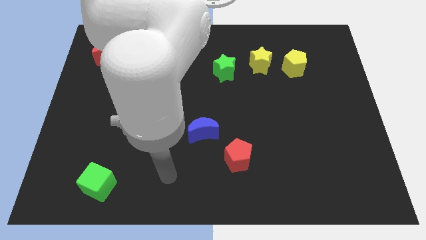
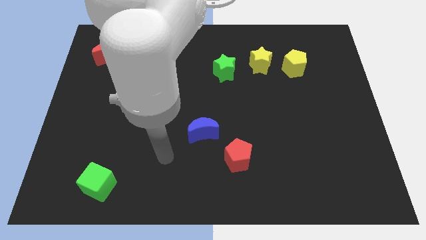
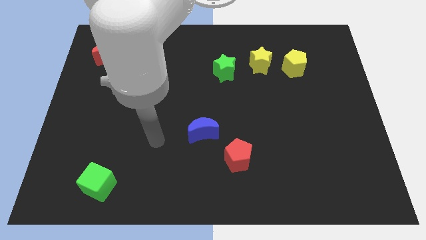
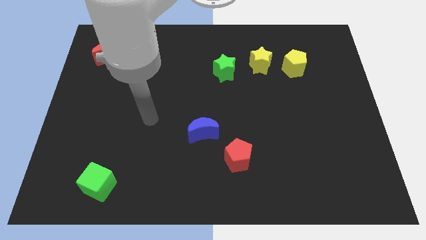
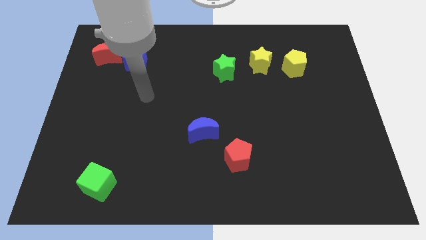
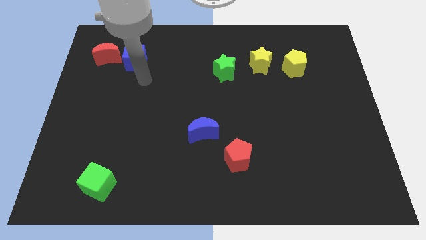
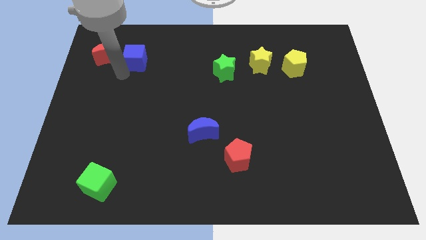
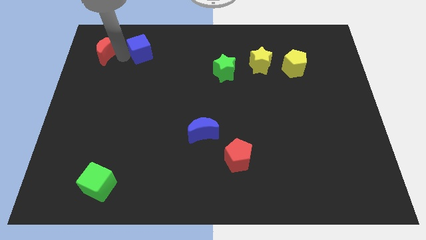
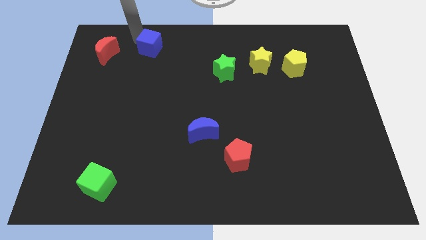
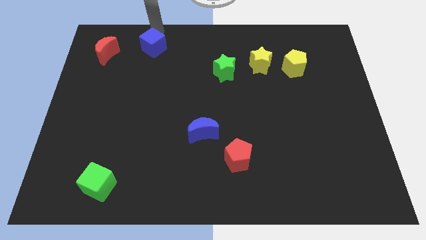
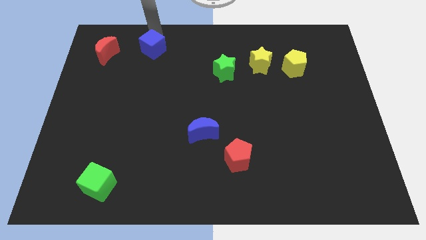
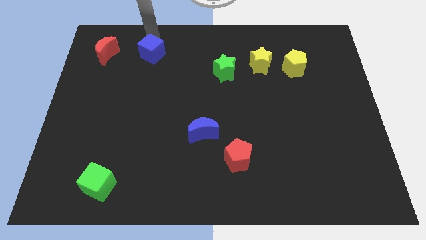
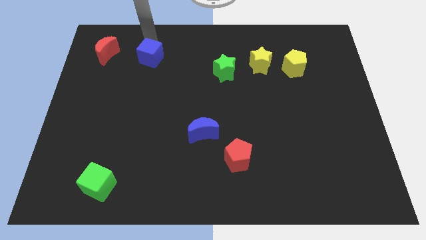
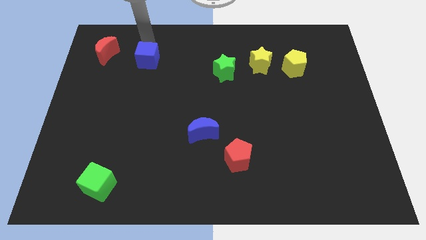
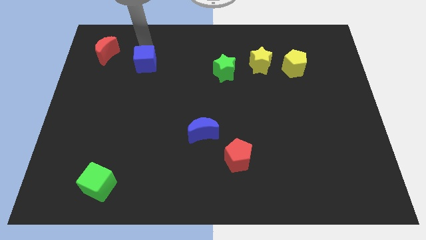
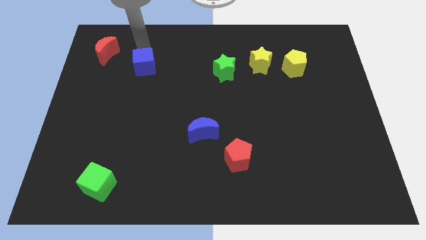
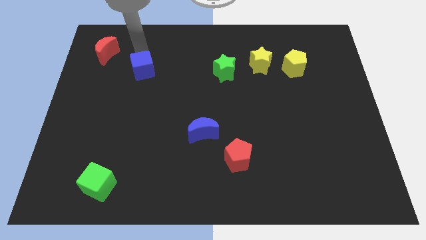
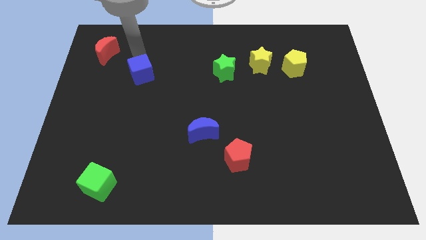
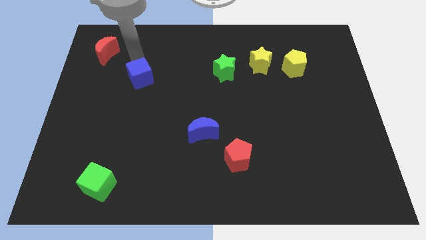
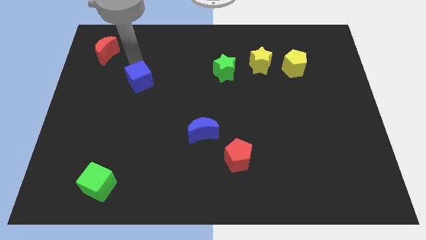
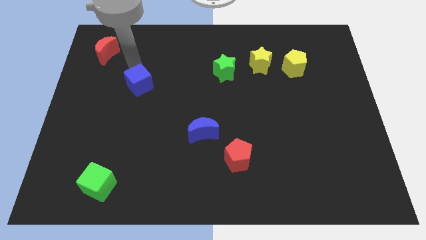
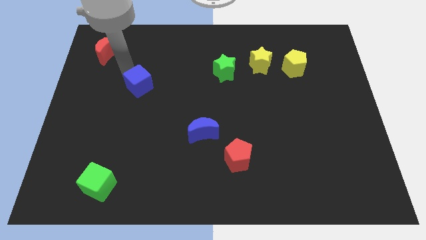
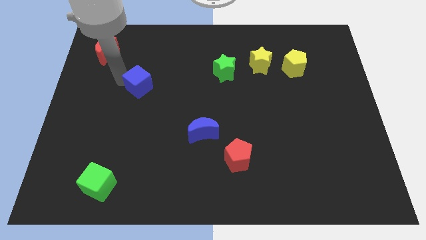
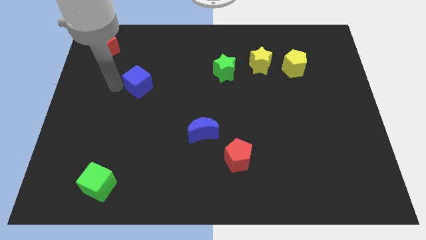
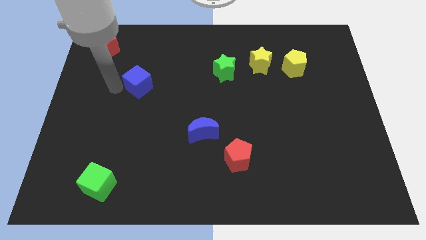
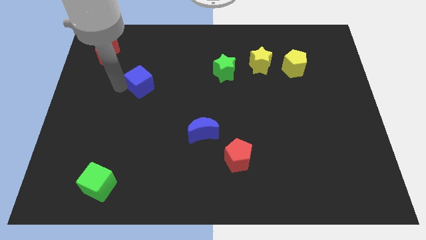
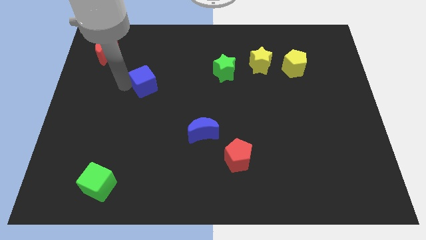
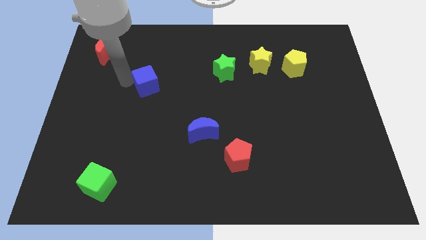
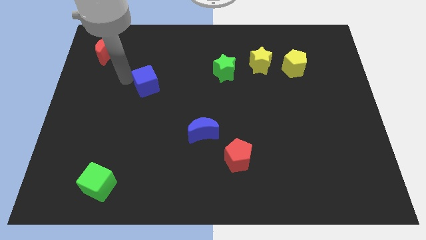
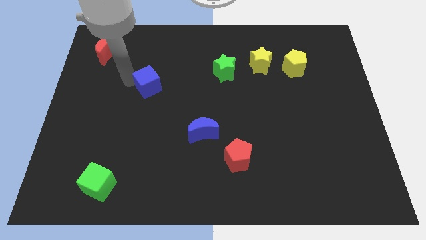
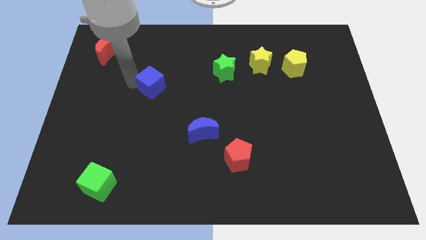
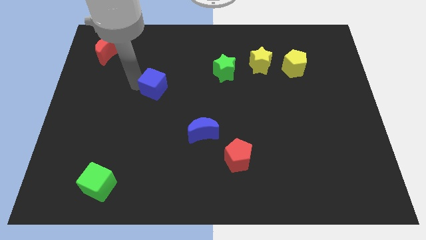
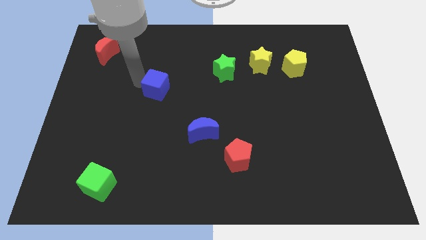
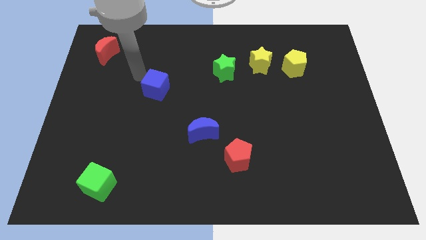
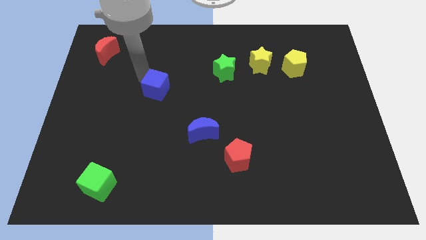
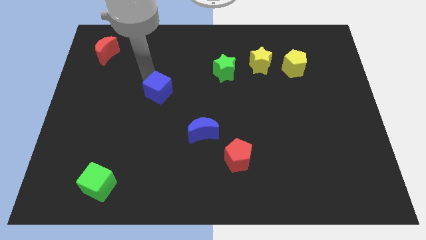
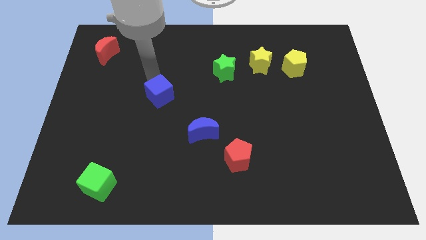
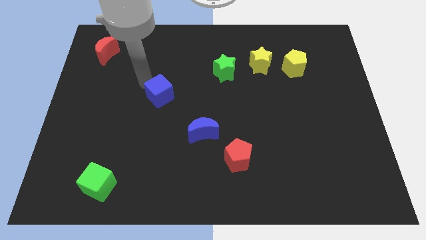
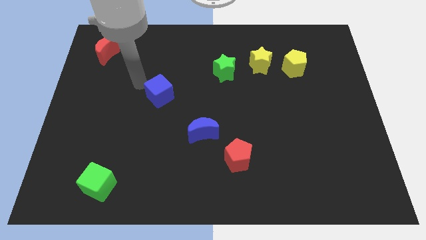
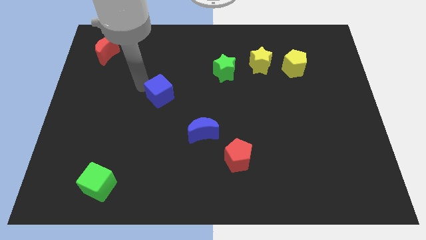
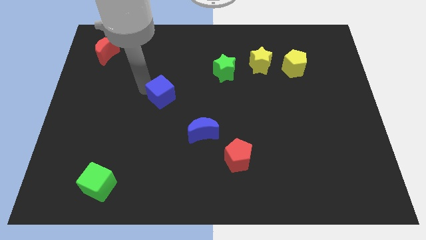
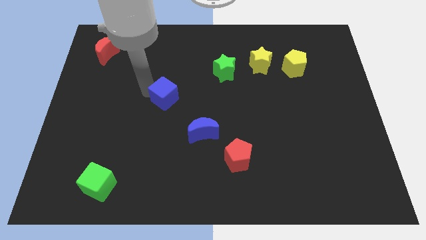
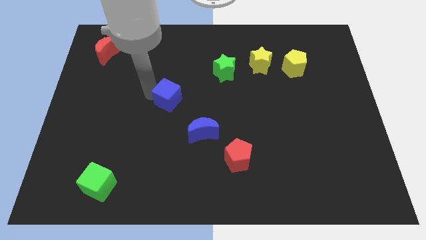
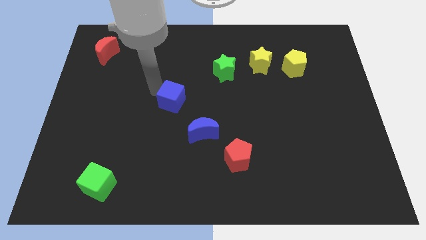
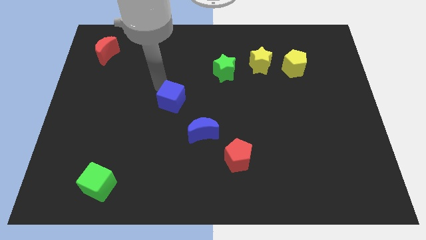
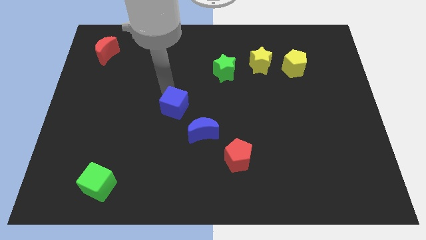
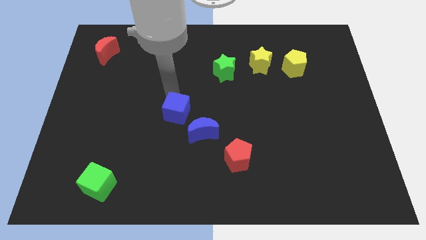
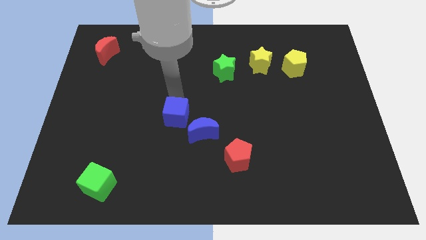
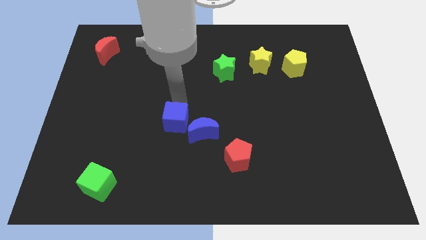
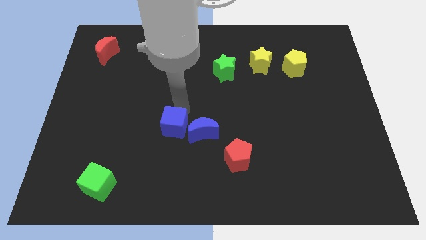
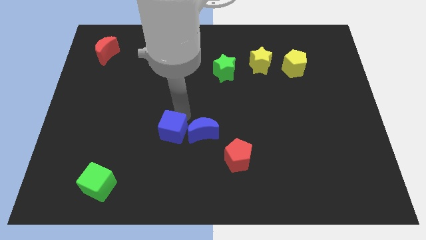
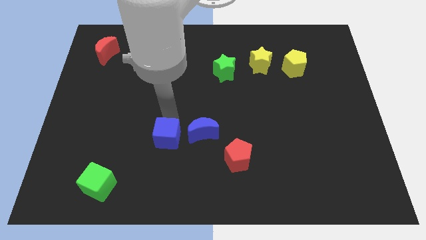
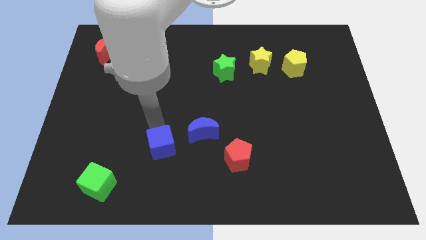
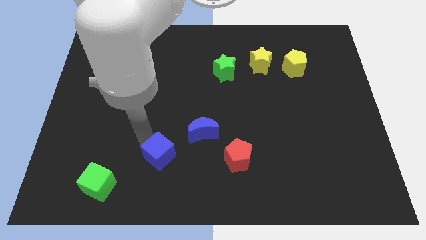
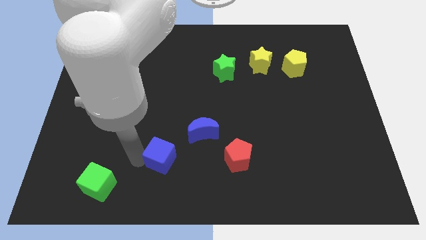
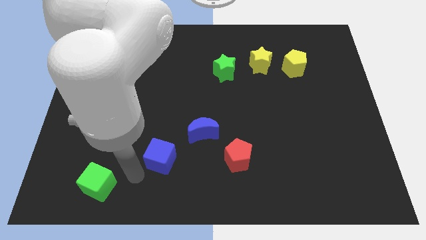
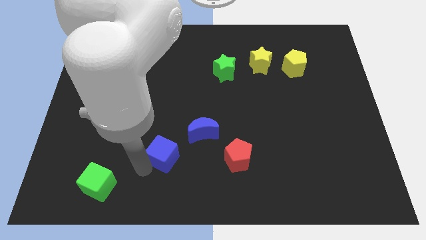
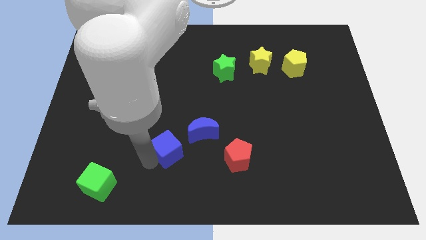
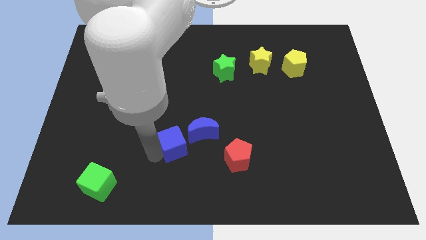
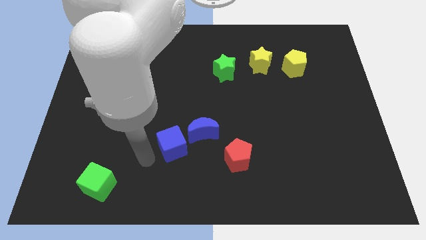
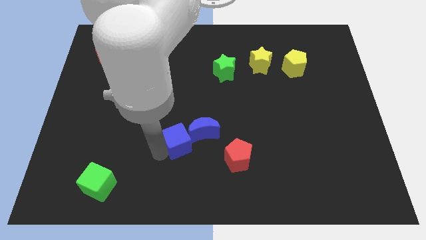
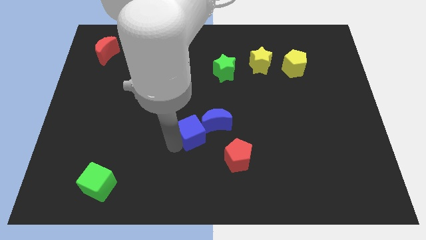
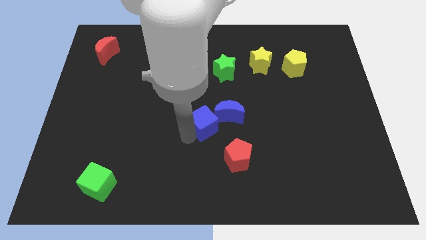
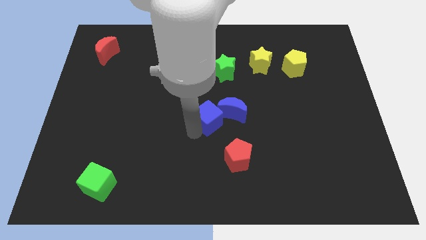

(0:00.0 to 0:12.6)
move the blue cube towards the blue moon

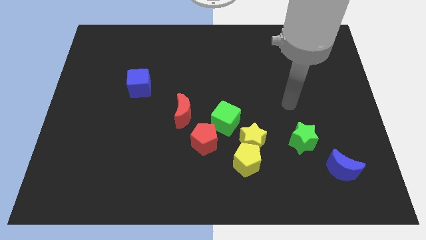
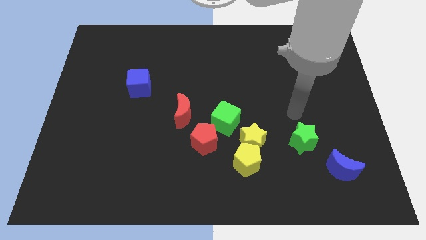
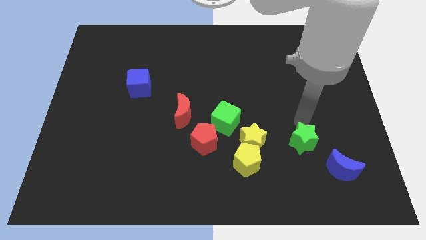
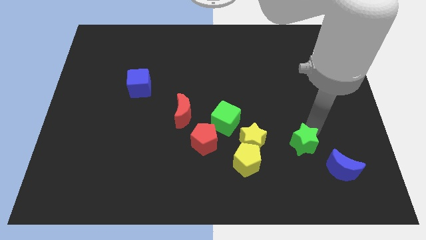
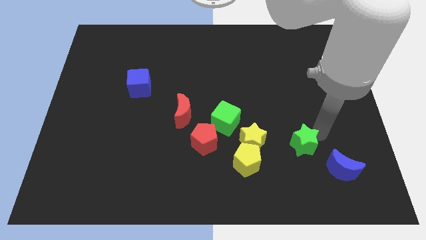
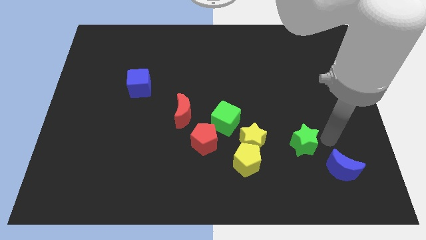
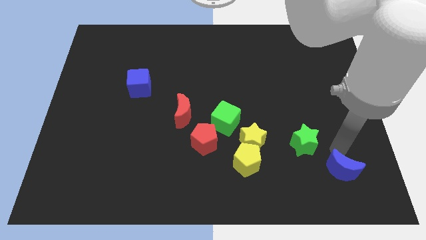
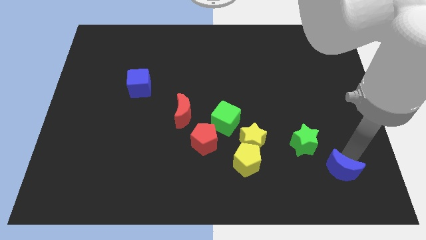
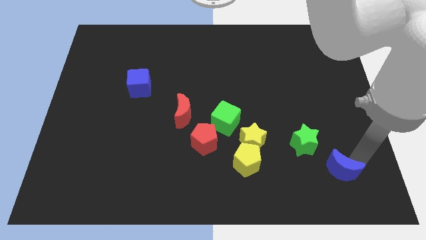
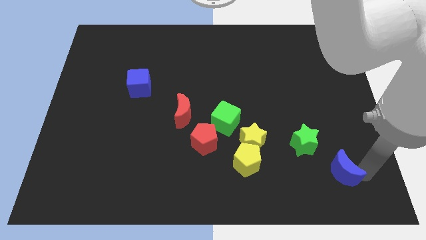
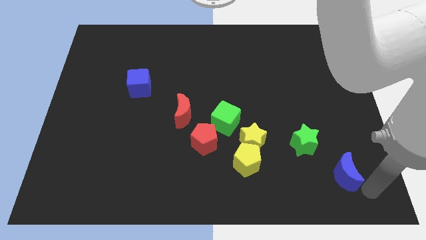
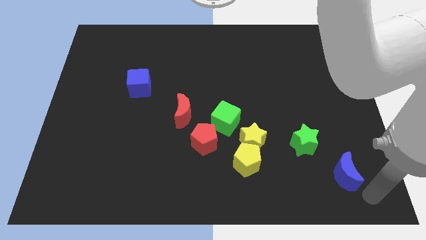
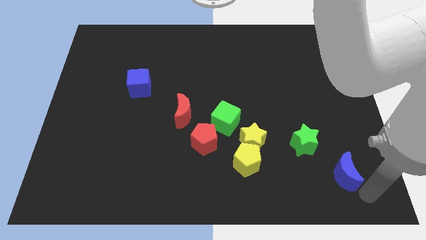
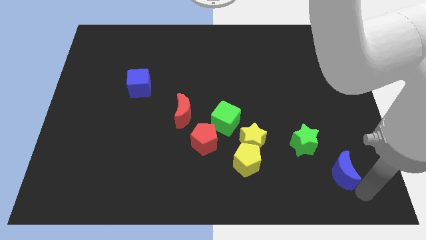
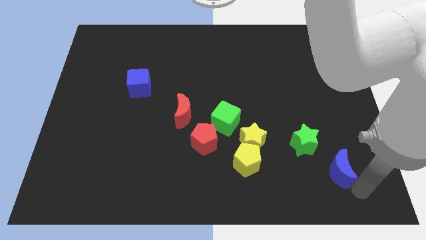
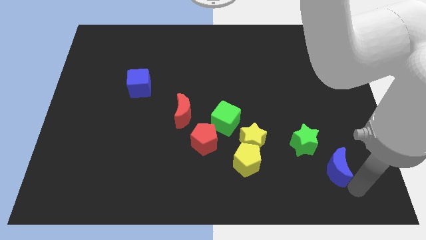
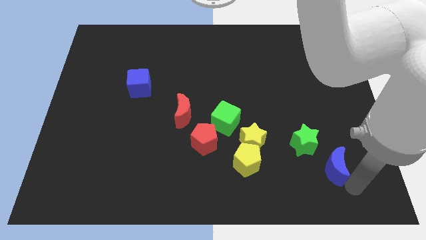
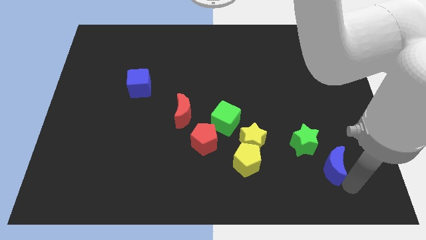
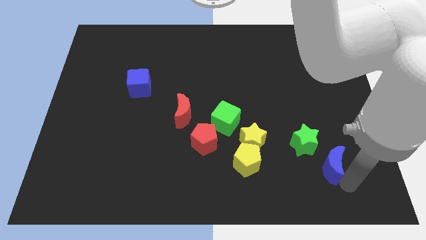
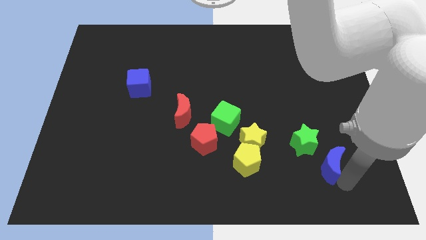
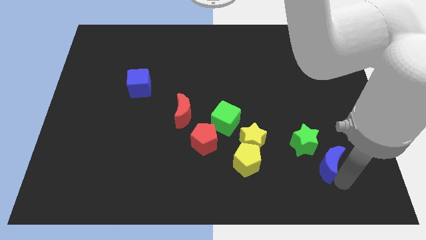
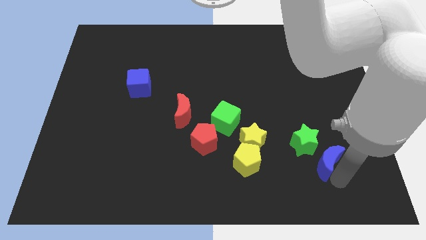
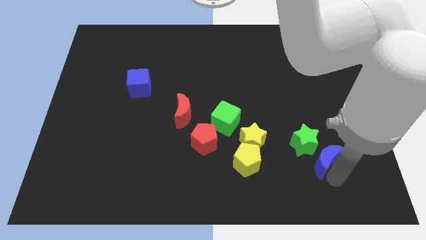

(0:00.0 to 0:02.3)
move the blue moon next to the green star
